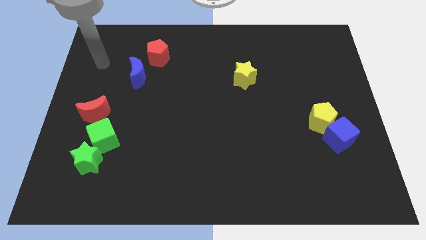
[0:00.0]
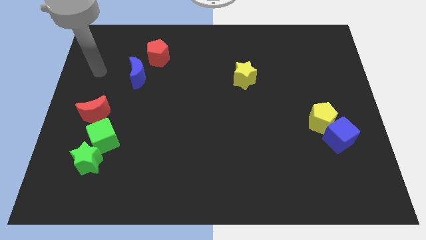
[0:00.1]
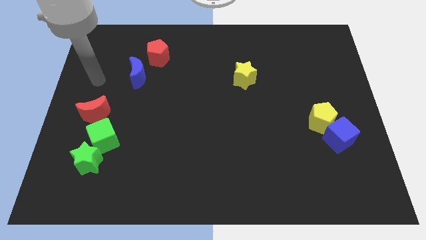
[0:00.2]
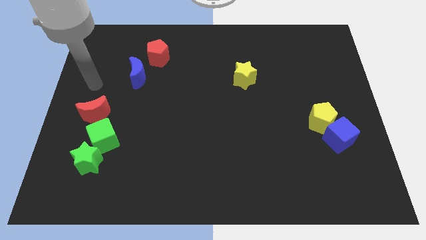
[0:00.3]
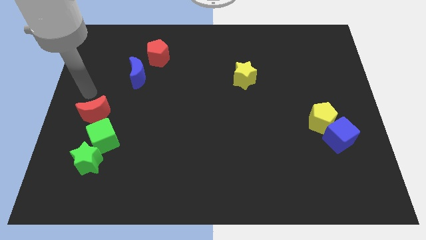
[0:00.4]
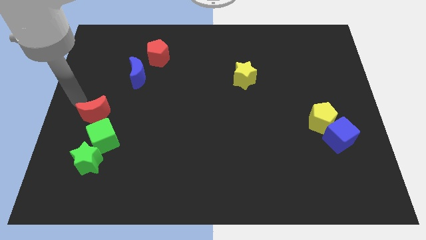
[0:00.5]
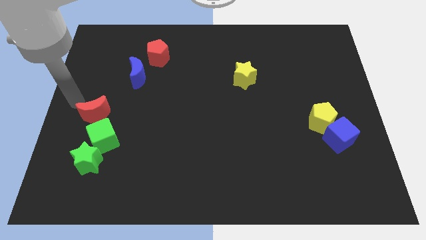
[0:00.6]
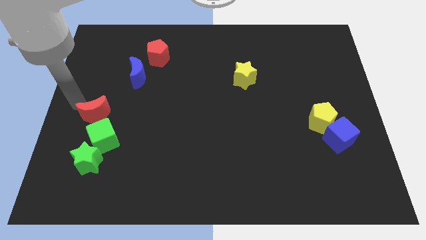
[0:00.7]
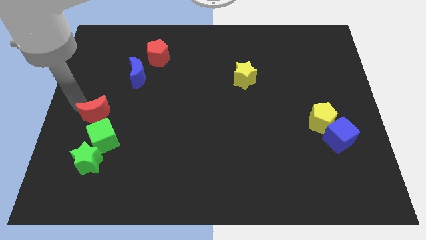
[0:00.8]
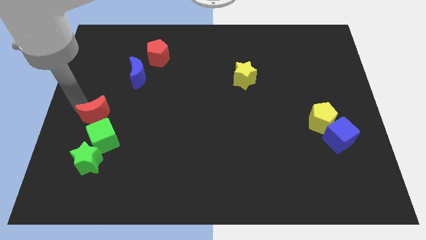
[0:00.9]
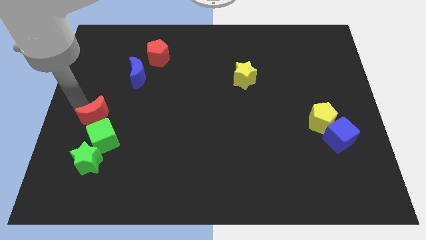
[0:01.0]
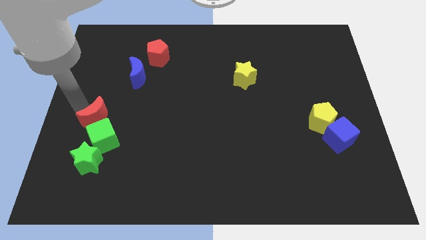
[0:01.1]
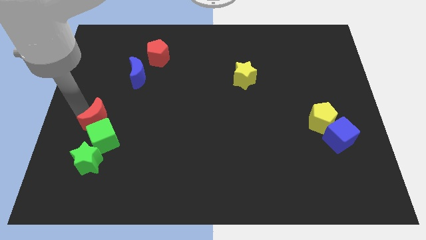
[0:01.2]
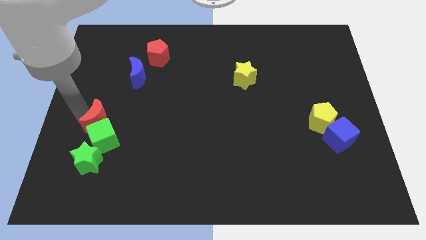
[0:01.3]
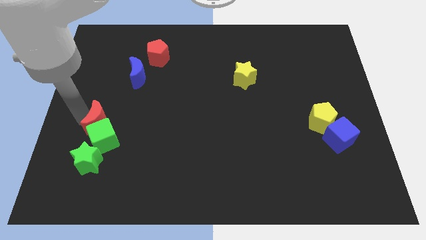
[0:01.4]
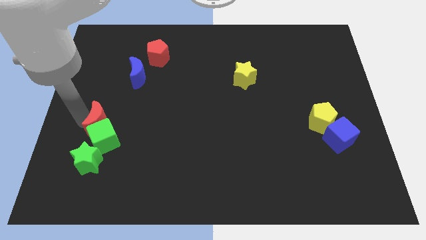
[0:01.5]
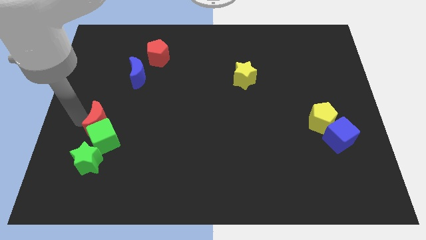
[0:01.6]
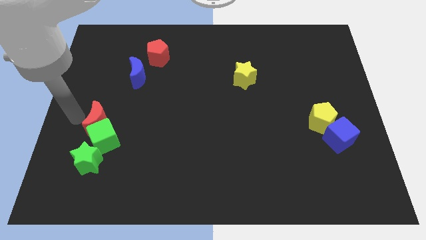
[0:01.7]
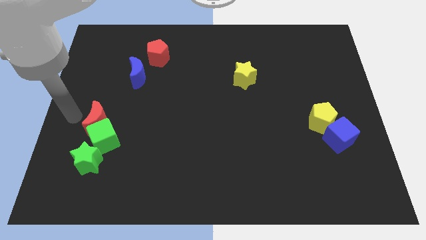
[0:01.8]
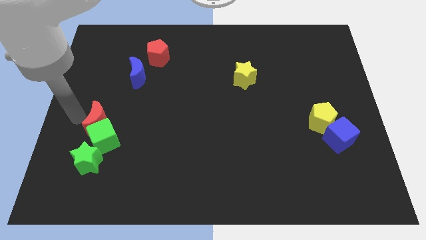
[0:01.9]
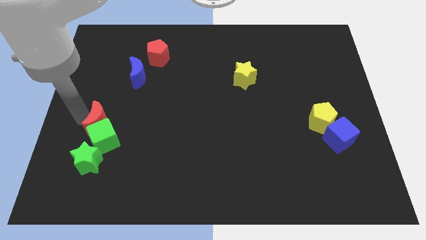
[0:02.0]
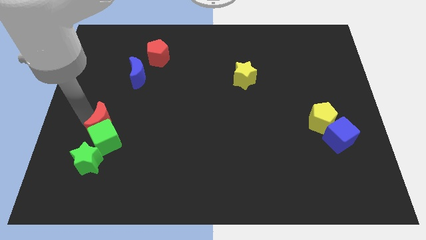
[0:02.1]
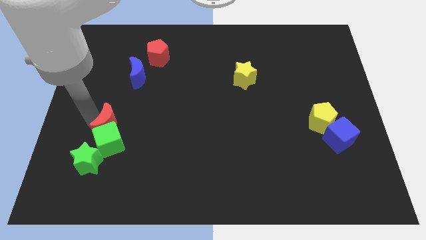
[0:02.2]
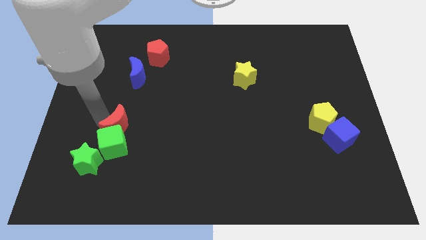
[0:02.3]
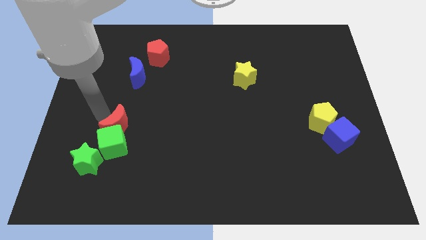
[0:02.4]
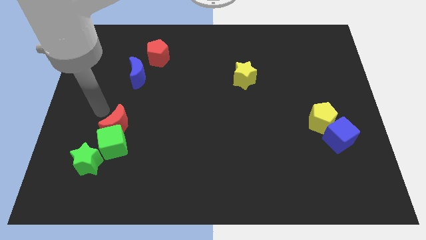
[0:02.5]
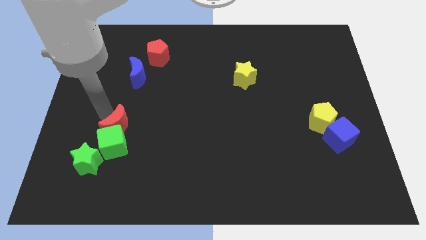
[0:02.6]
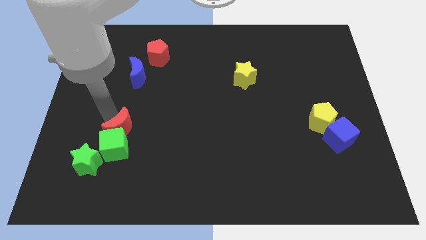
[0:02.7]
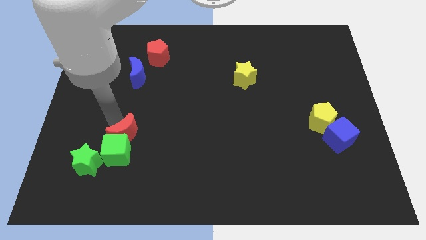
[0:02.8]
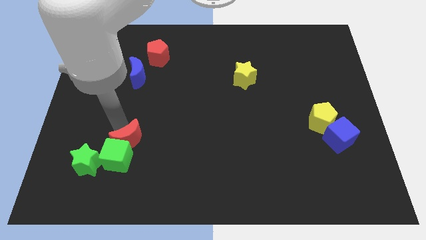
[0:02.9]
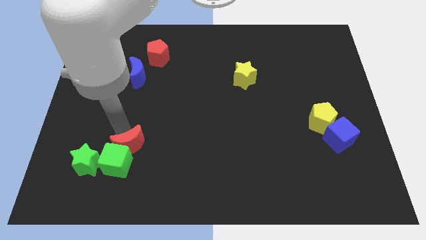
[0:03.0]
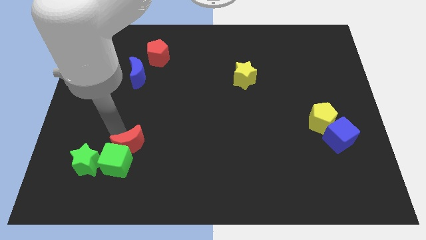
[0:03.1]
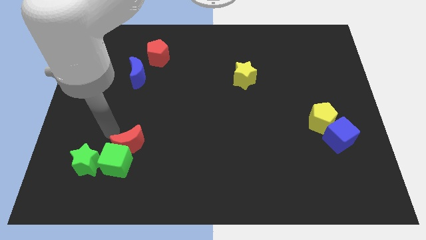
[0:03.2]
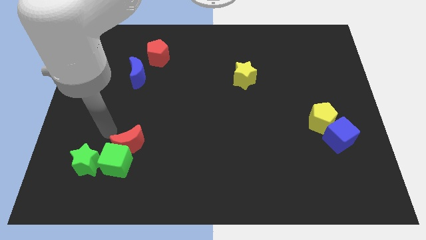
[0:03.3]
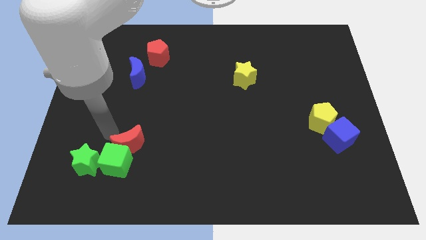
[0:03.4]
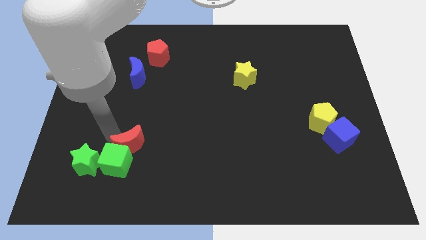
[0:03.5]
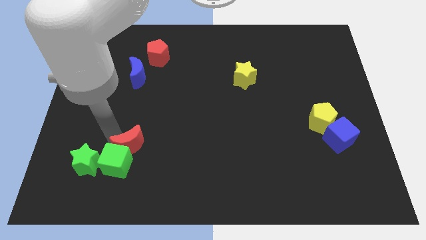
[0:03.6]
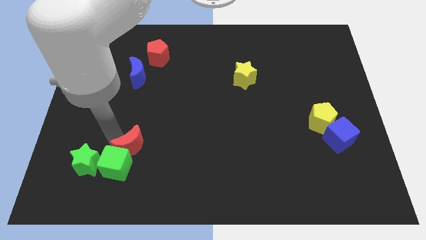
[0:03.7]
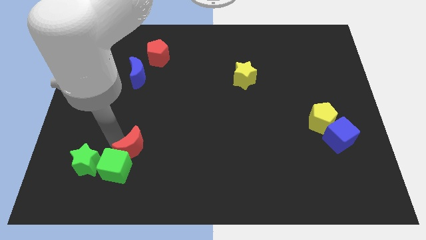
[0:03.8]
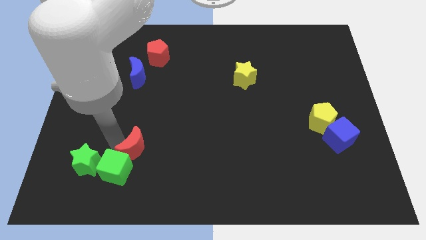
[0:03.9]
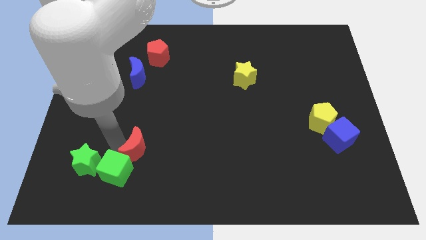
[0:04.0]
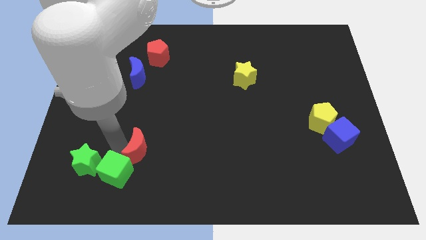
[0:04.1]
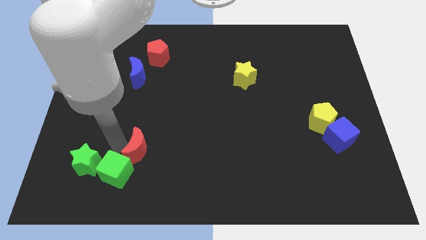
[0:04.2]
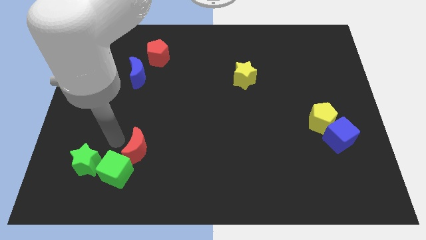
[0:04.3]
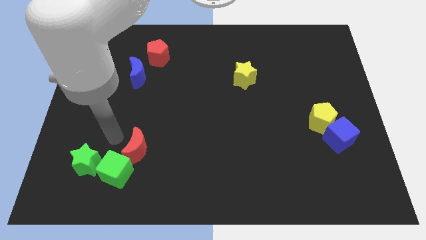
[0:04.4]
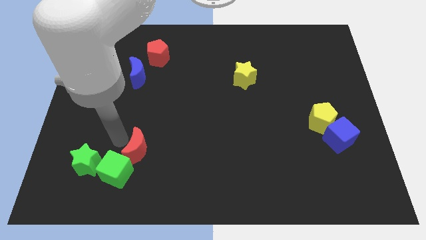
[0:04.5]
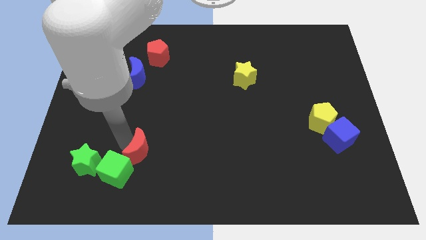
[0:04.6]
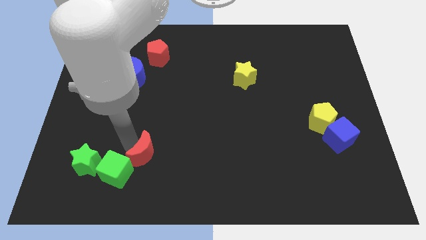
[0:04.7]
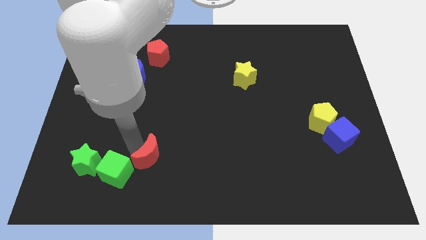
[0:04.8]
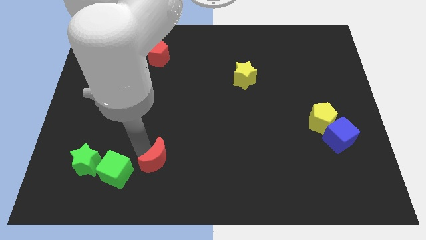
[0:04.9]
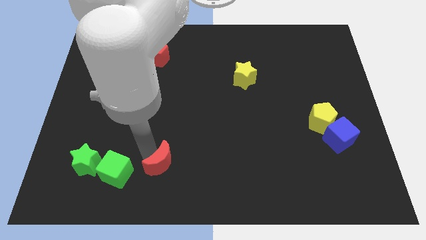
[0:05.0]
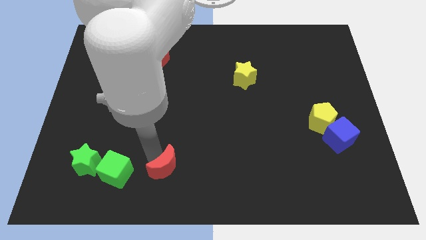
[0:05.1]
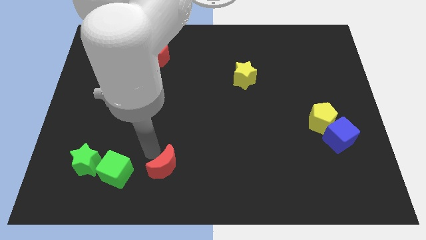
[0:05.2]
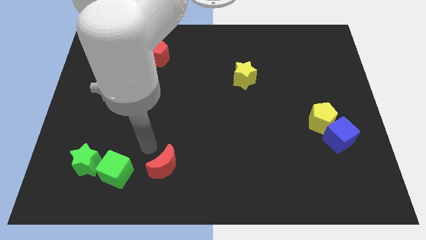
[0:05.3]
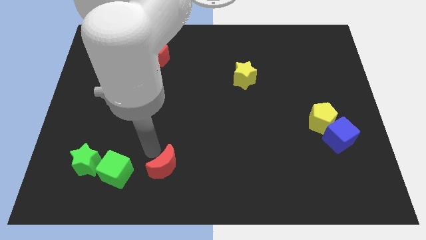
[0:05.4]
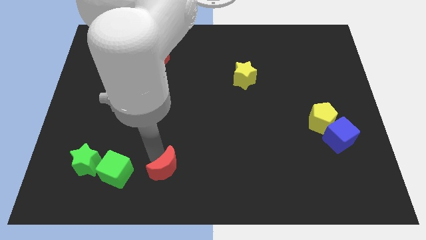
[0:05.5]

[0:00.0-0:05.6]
put the red moon to the bottom
